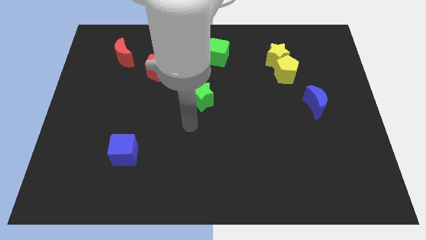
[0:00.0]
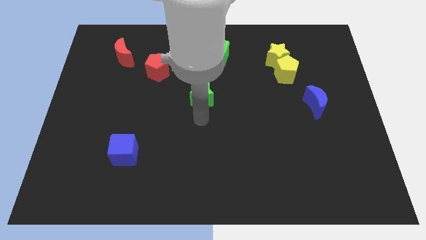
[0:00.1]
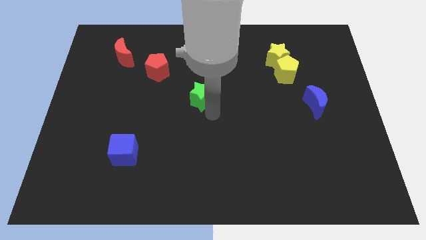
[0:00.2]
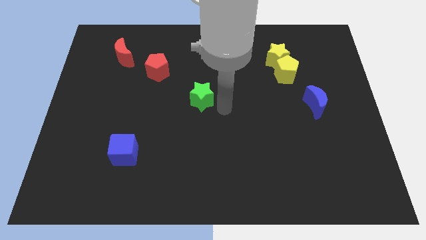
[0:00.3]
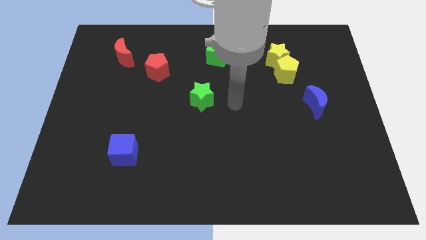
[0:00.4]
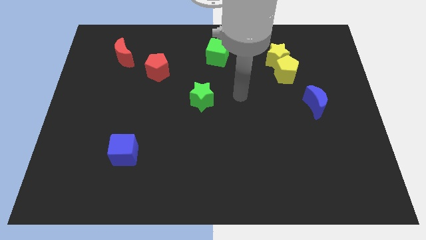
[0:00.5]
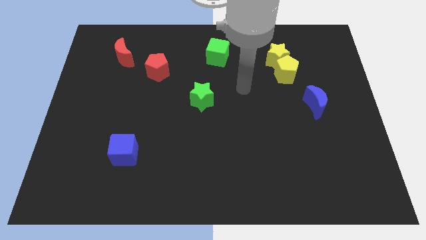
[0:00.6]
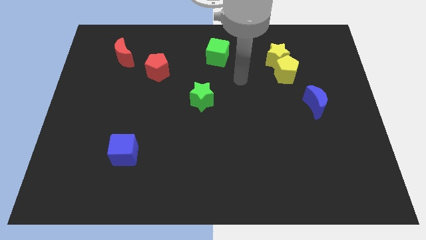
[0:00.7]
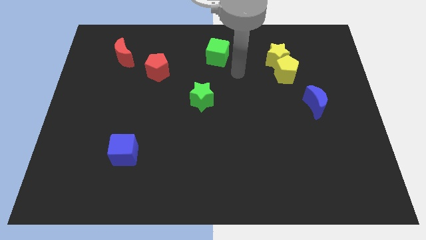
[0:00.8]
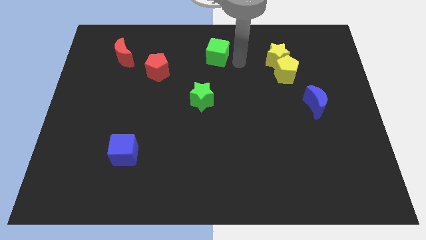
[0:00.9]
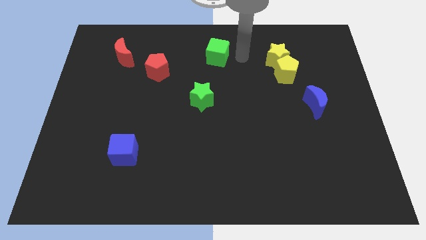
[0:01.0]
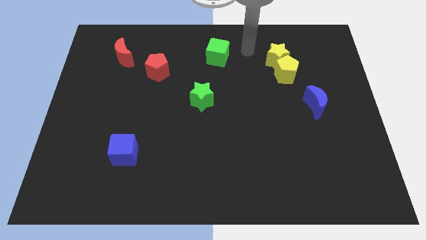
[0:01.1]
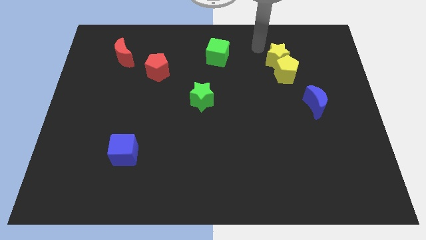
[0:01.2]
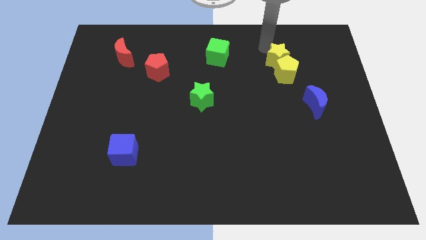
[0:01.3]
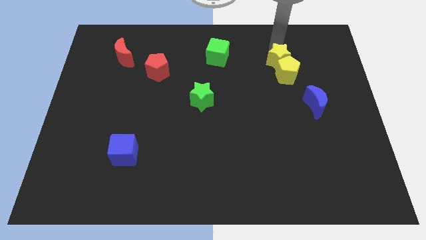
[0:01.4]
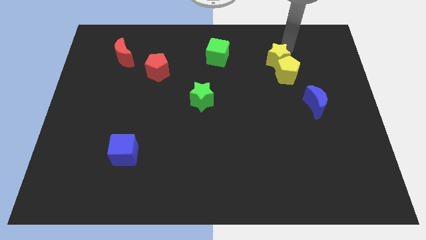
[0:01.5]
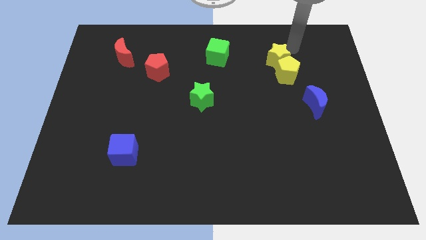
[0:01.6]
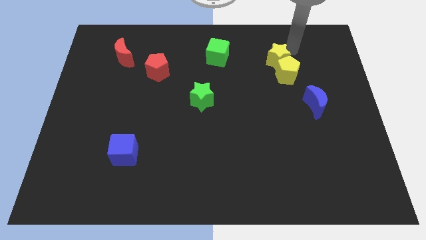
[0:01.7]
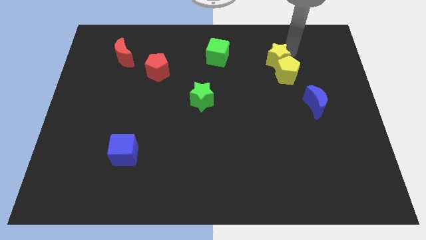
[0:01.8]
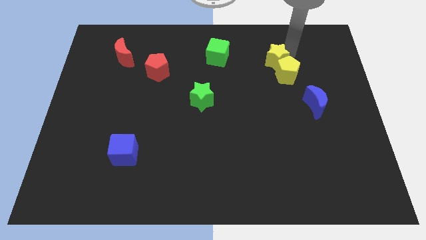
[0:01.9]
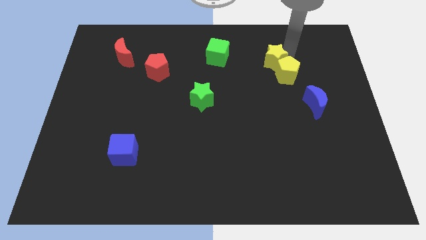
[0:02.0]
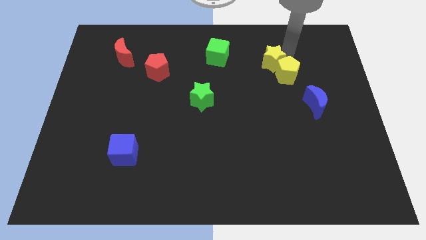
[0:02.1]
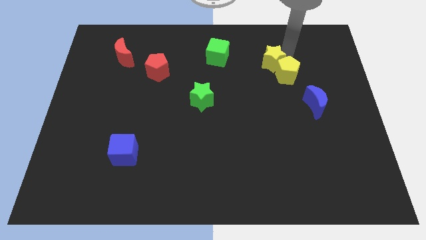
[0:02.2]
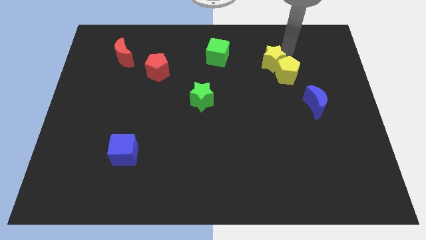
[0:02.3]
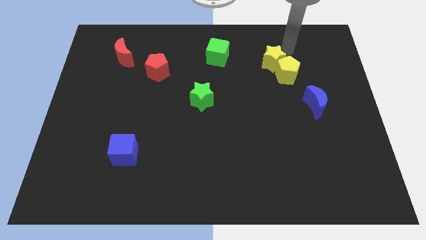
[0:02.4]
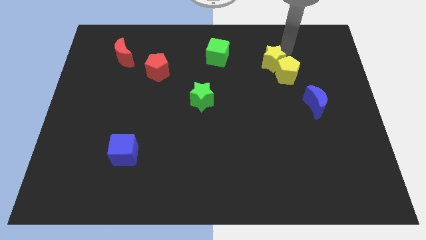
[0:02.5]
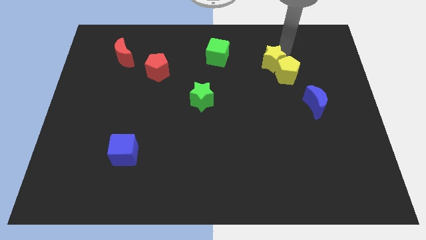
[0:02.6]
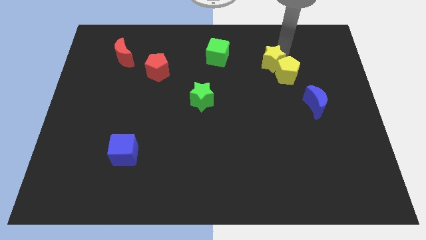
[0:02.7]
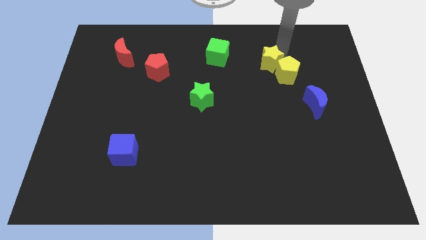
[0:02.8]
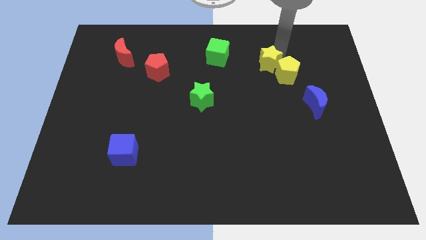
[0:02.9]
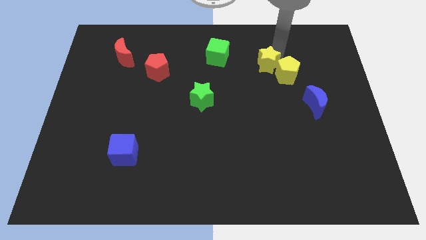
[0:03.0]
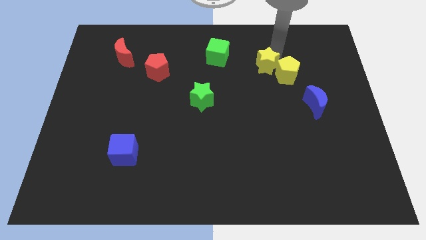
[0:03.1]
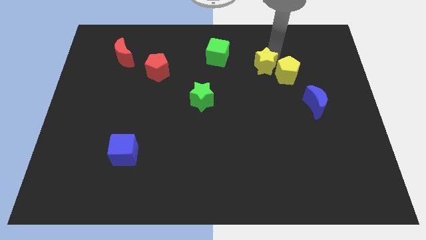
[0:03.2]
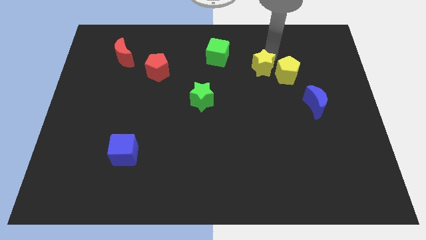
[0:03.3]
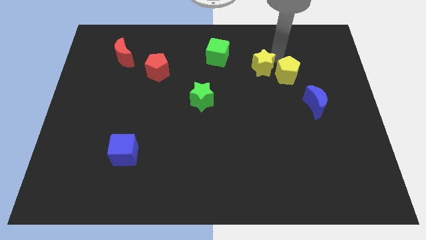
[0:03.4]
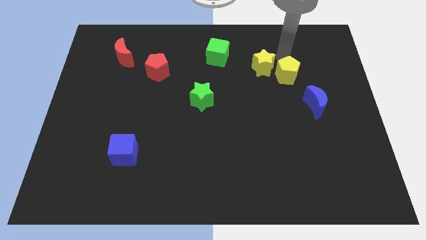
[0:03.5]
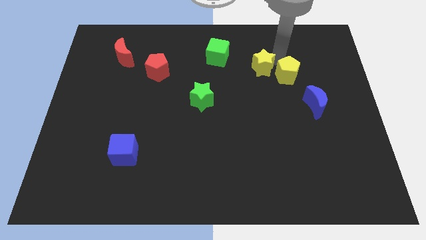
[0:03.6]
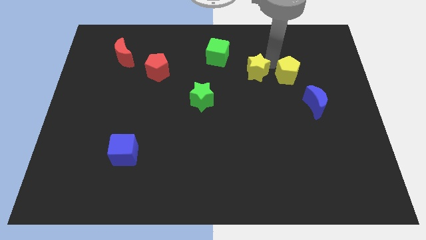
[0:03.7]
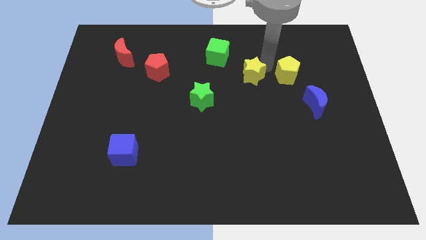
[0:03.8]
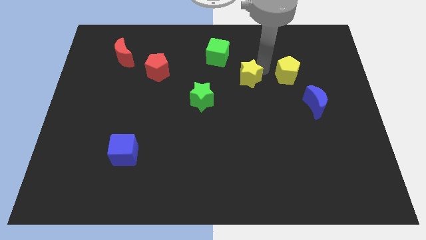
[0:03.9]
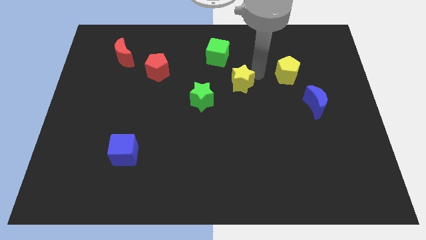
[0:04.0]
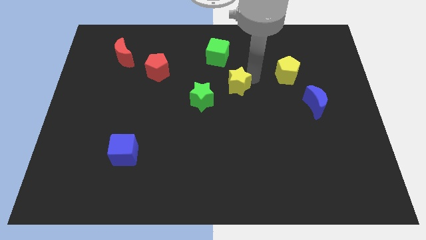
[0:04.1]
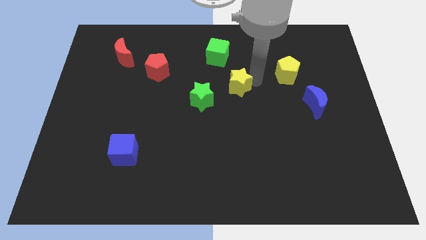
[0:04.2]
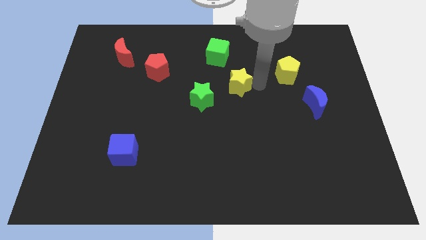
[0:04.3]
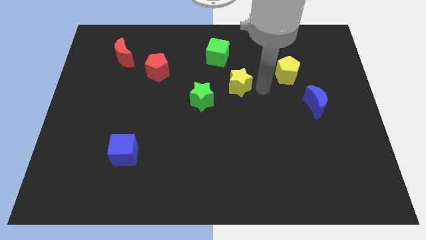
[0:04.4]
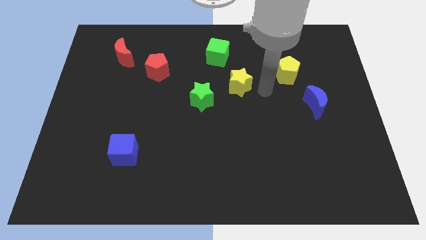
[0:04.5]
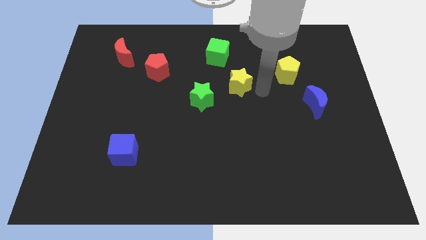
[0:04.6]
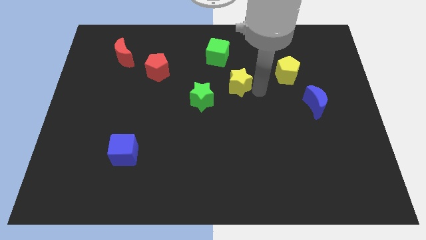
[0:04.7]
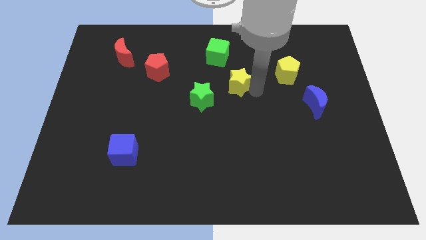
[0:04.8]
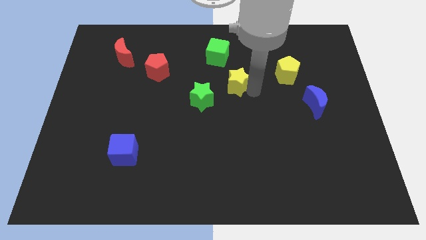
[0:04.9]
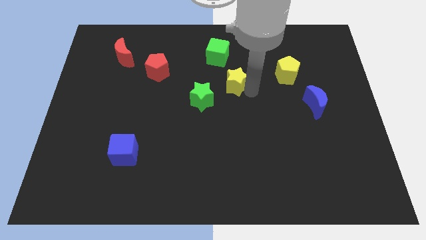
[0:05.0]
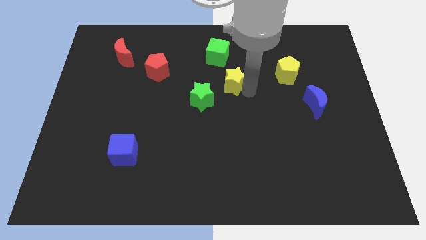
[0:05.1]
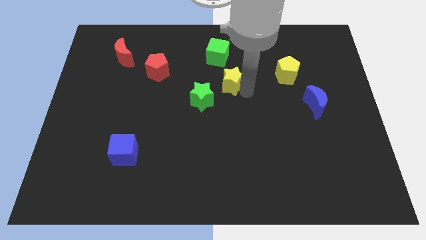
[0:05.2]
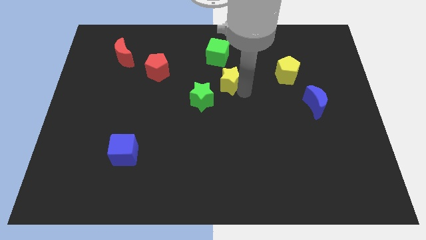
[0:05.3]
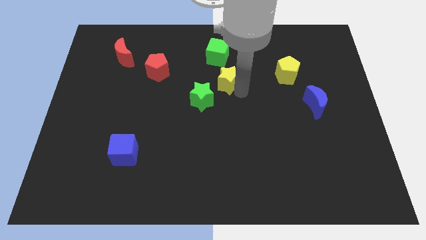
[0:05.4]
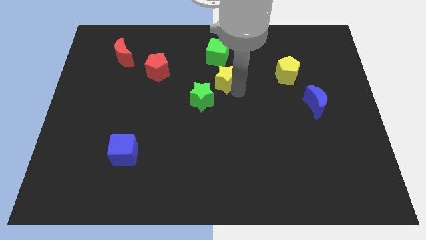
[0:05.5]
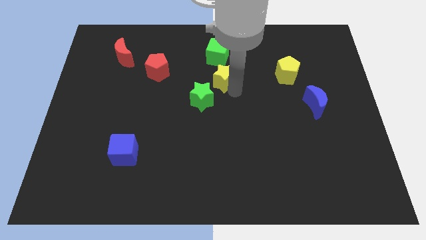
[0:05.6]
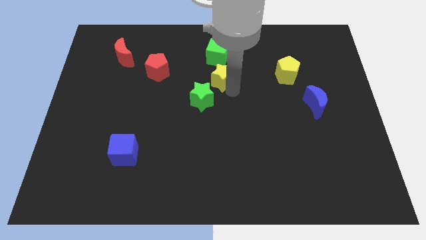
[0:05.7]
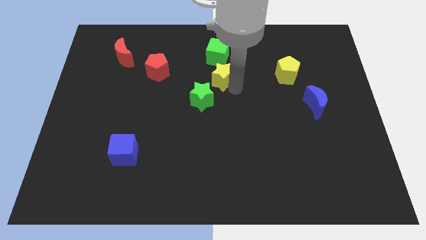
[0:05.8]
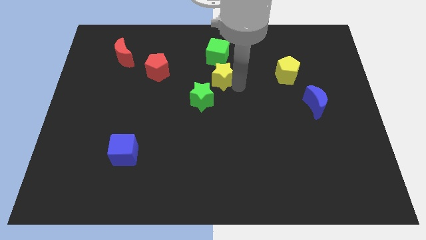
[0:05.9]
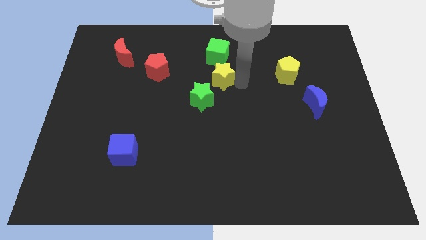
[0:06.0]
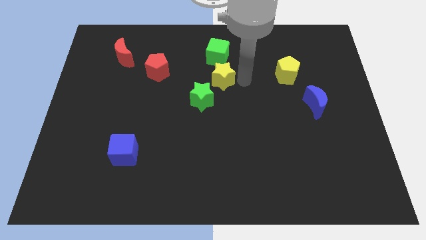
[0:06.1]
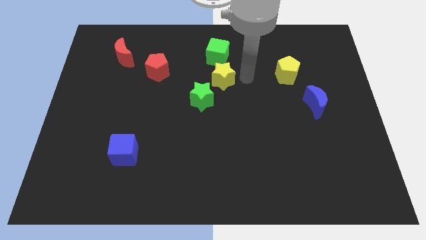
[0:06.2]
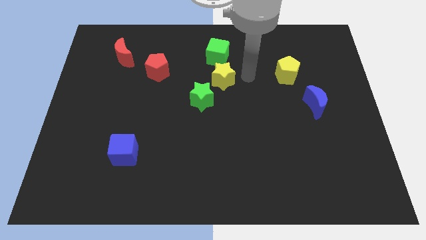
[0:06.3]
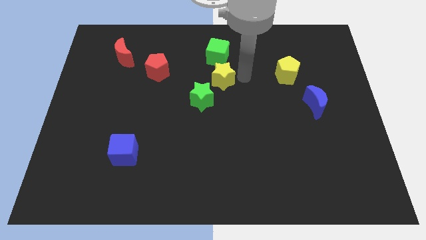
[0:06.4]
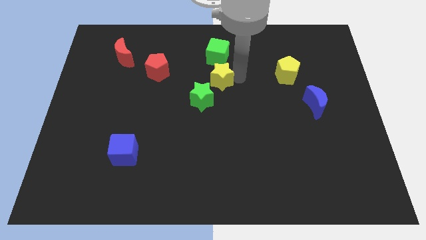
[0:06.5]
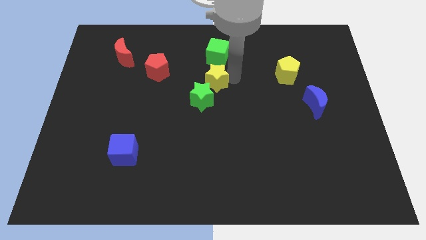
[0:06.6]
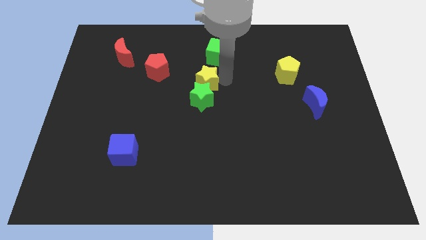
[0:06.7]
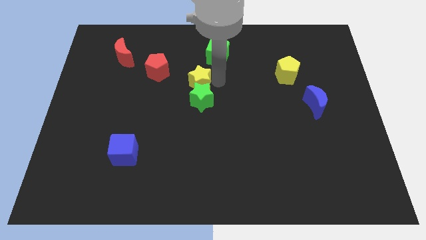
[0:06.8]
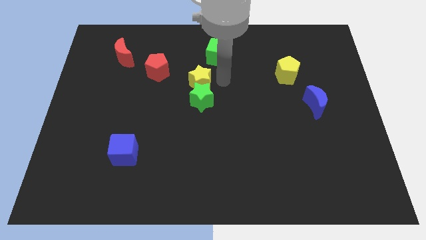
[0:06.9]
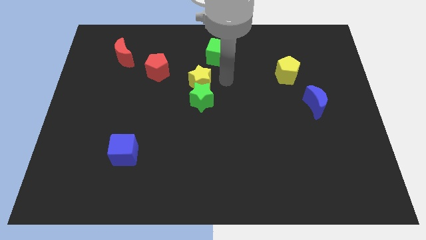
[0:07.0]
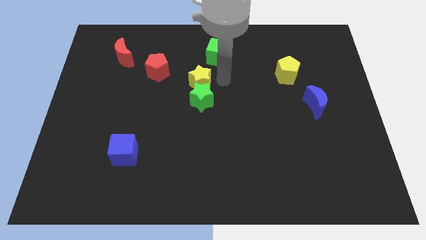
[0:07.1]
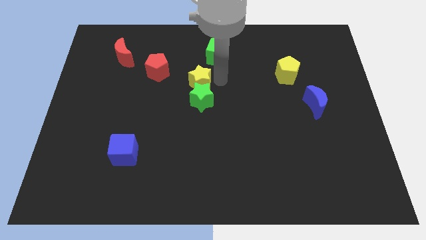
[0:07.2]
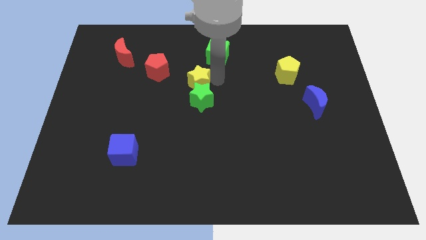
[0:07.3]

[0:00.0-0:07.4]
push the yellow star to the bottom right side of the red pentagon
